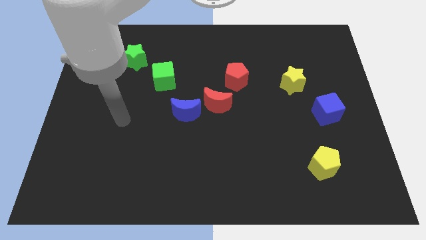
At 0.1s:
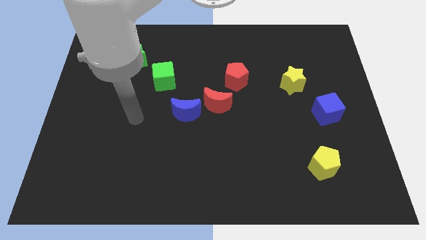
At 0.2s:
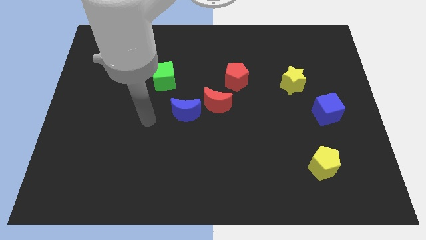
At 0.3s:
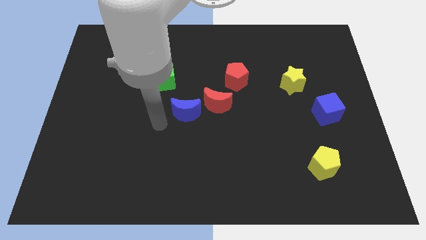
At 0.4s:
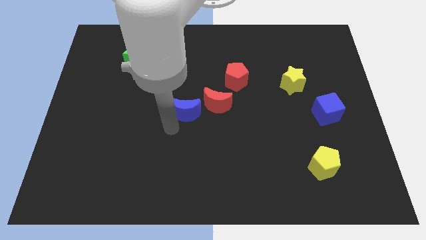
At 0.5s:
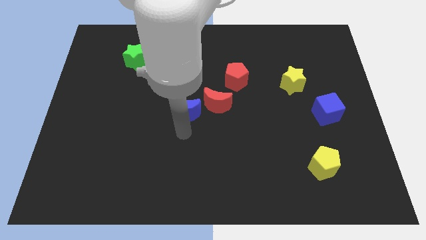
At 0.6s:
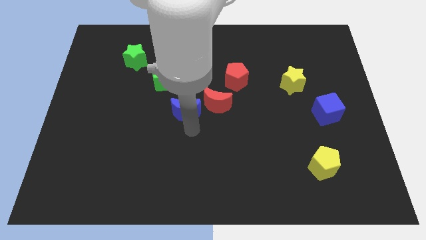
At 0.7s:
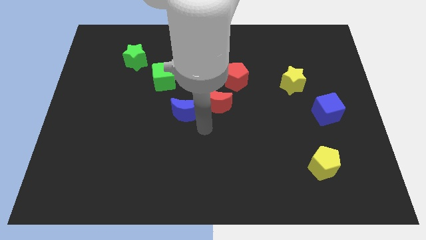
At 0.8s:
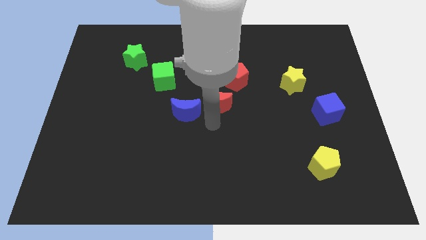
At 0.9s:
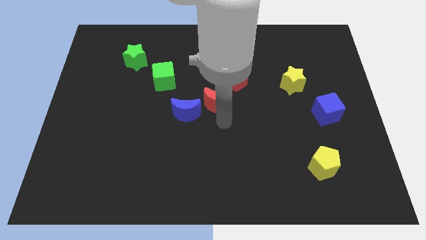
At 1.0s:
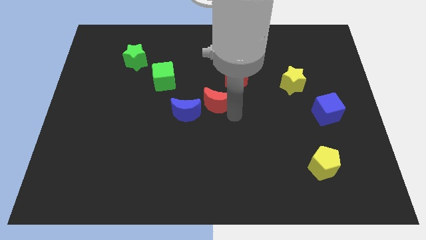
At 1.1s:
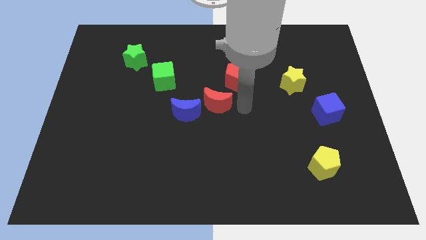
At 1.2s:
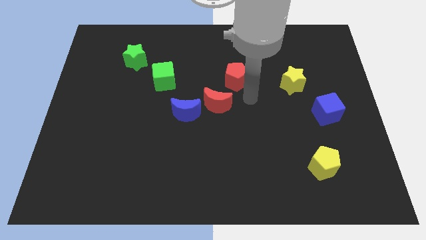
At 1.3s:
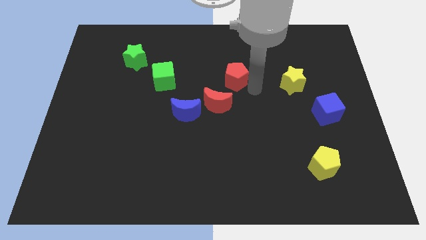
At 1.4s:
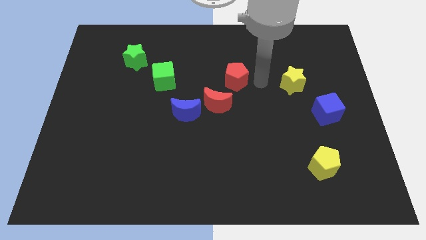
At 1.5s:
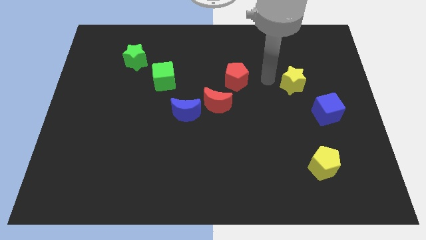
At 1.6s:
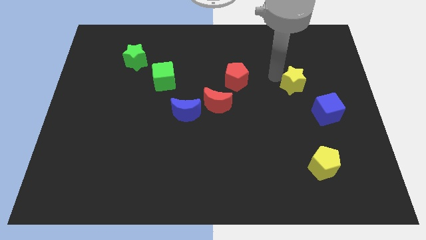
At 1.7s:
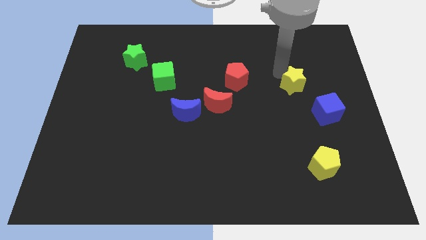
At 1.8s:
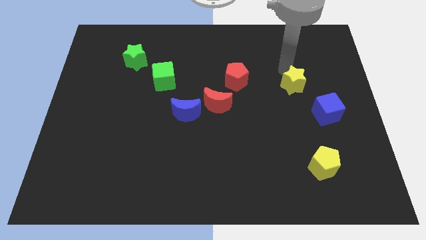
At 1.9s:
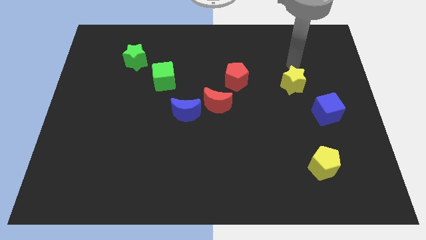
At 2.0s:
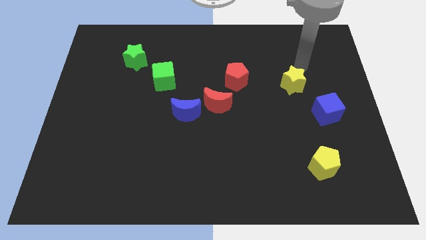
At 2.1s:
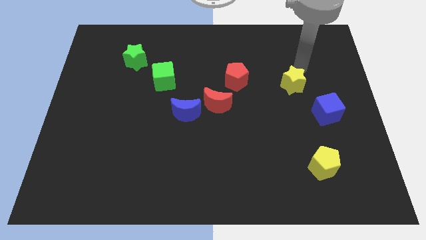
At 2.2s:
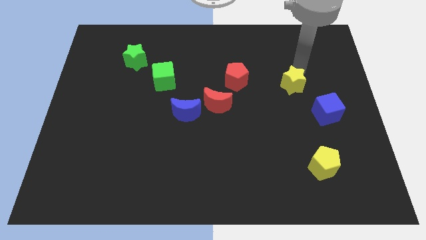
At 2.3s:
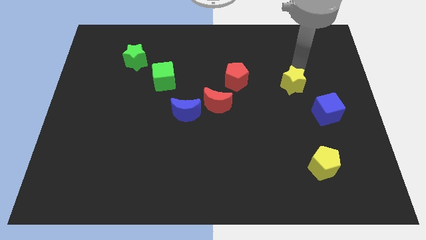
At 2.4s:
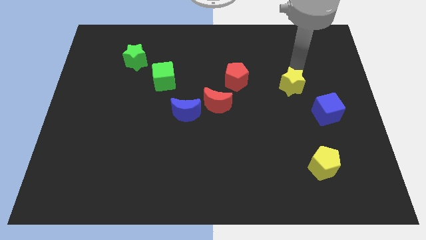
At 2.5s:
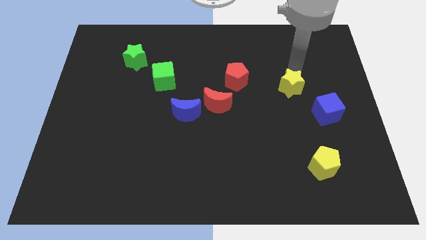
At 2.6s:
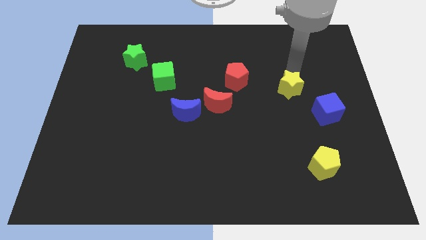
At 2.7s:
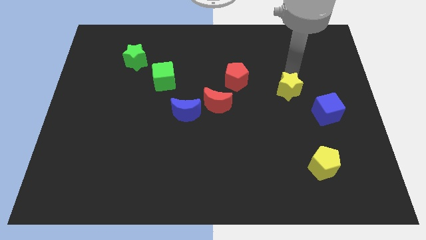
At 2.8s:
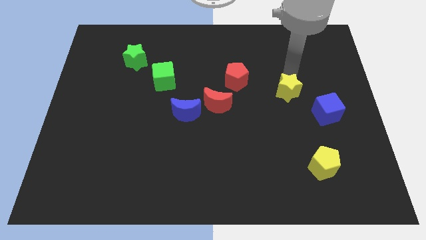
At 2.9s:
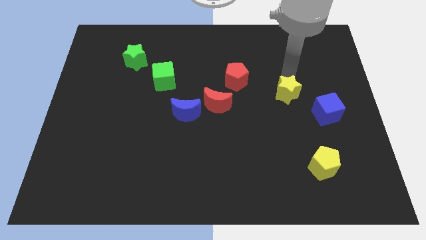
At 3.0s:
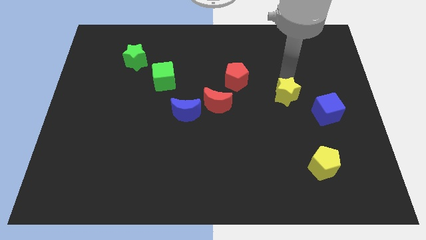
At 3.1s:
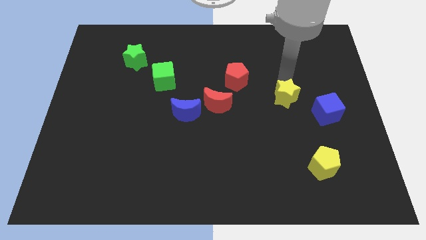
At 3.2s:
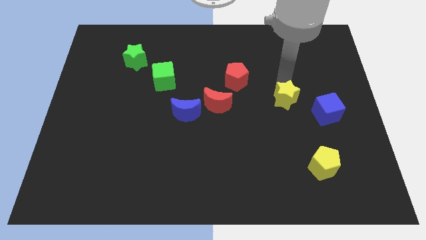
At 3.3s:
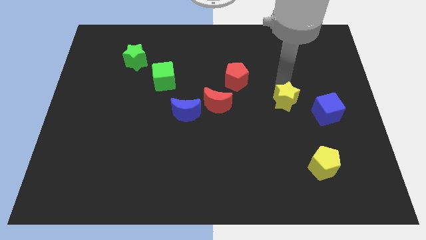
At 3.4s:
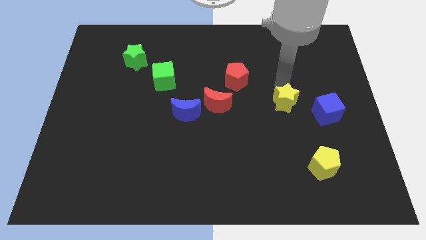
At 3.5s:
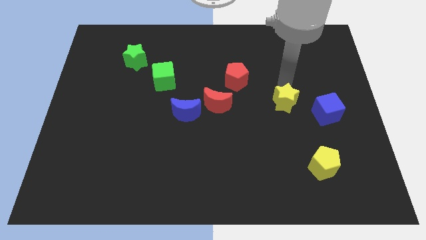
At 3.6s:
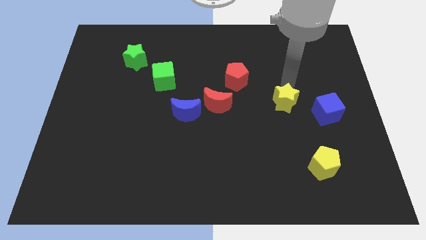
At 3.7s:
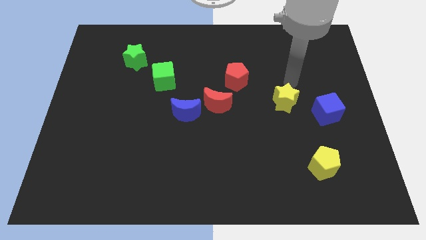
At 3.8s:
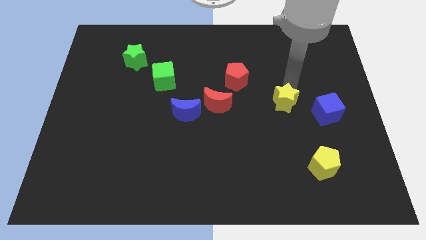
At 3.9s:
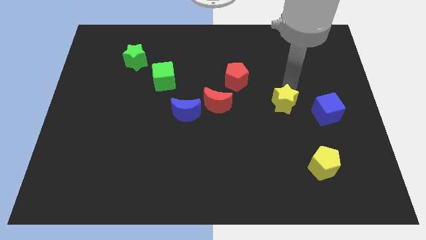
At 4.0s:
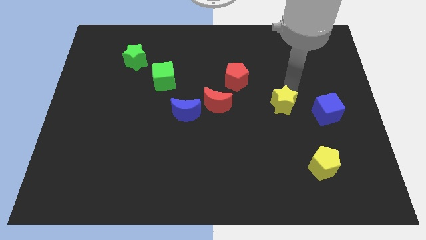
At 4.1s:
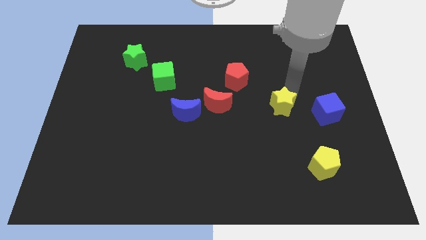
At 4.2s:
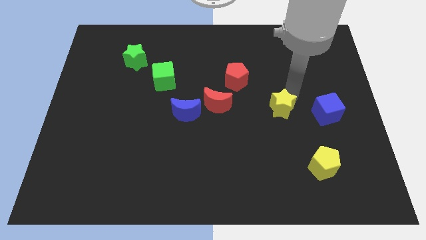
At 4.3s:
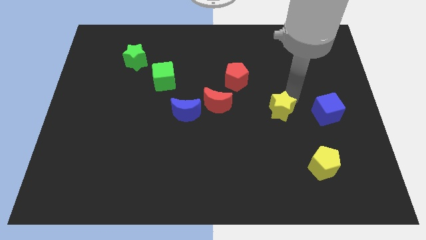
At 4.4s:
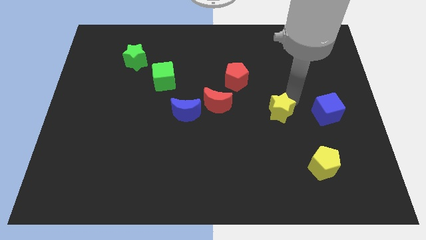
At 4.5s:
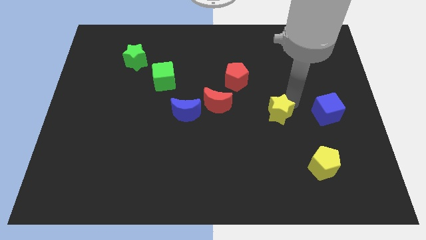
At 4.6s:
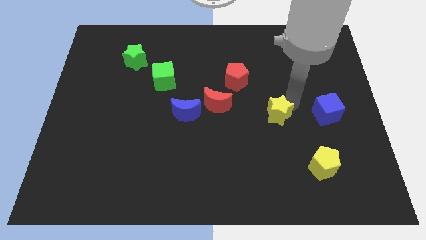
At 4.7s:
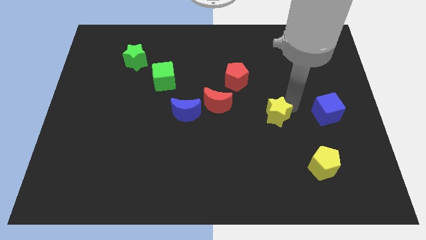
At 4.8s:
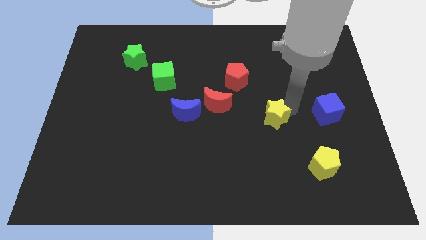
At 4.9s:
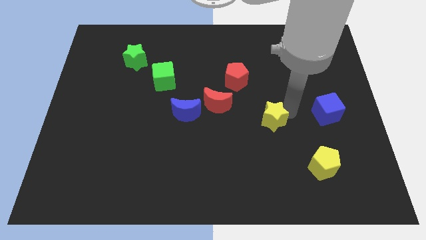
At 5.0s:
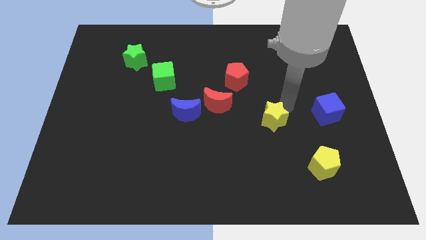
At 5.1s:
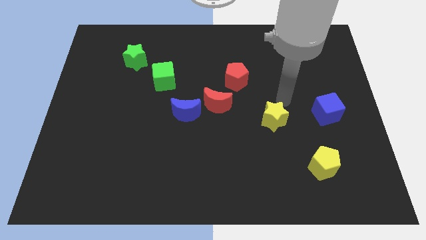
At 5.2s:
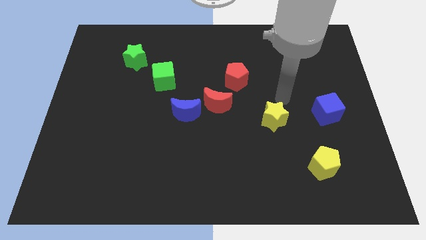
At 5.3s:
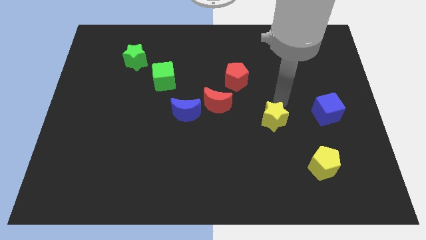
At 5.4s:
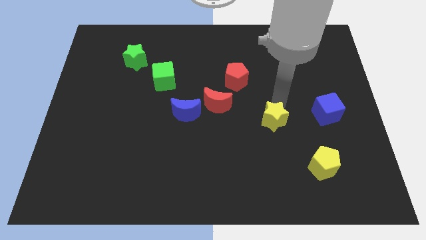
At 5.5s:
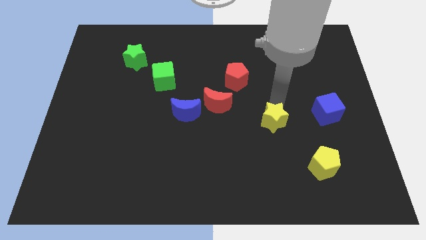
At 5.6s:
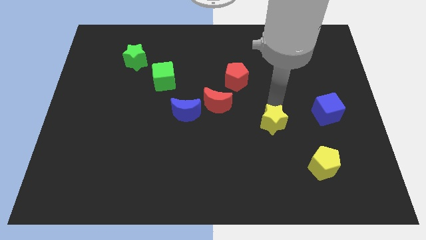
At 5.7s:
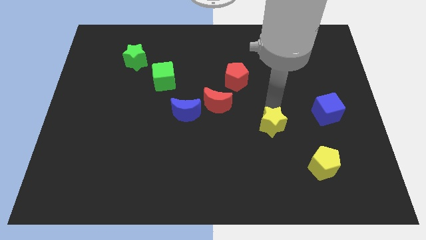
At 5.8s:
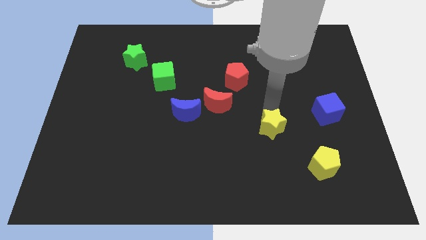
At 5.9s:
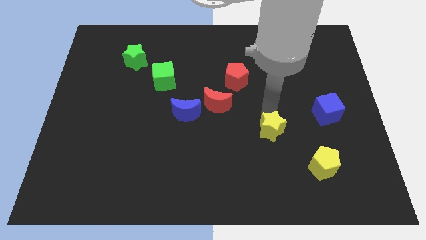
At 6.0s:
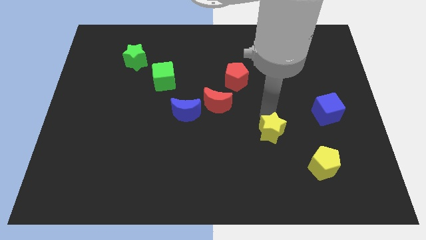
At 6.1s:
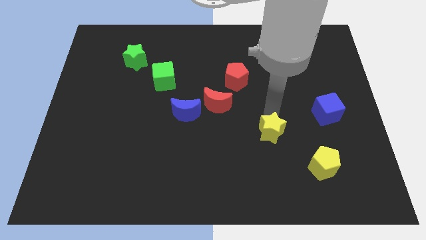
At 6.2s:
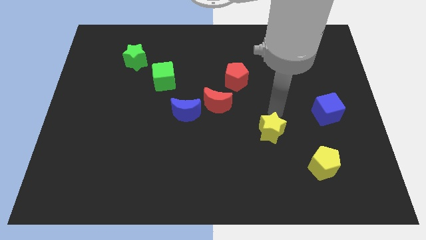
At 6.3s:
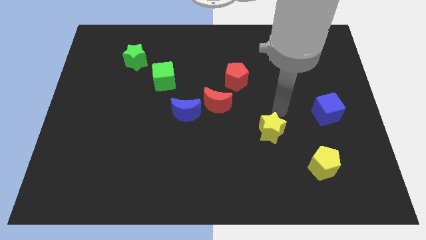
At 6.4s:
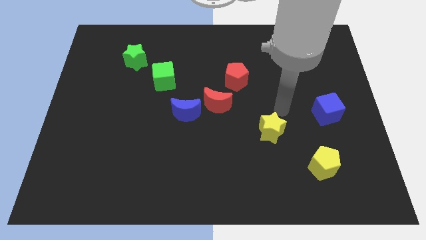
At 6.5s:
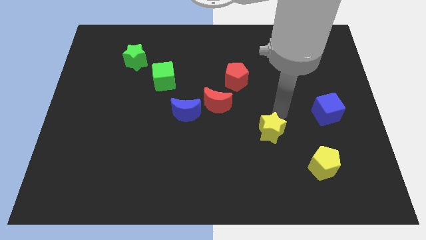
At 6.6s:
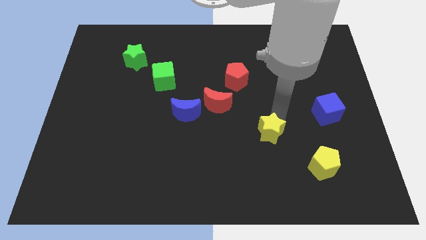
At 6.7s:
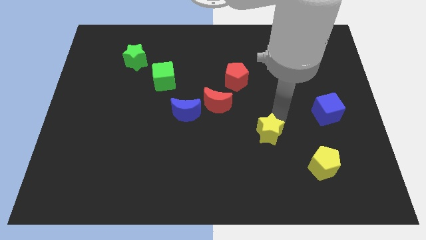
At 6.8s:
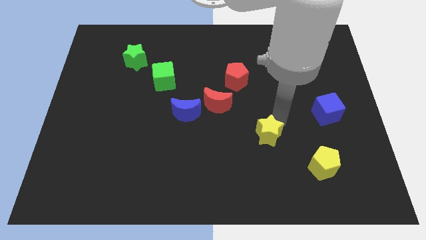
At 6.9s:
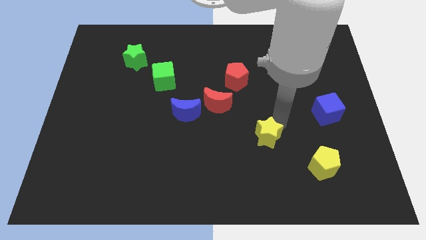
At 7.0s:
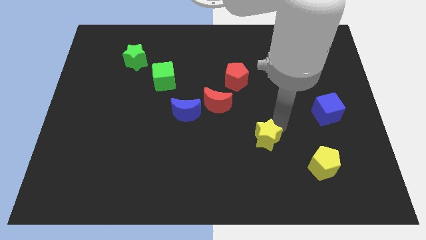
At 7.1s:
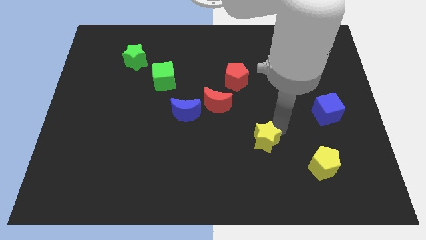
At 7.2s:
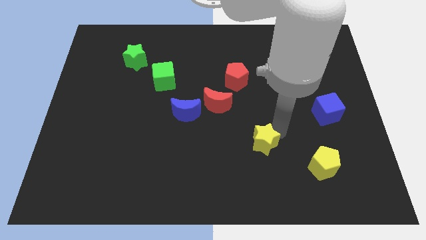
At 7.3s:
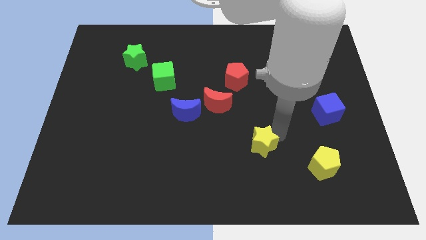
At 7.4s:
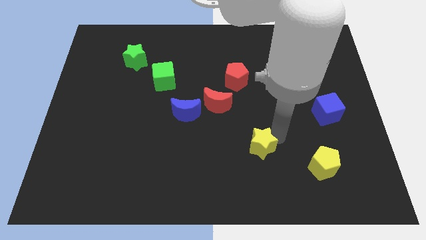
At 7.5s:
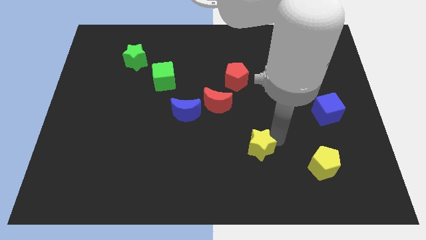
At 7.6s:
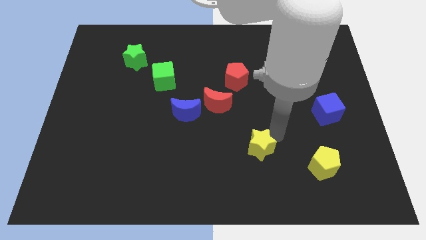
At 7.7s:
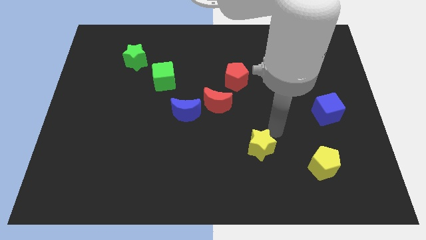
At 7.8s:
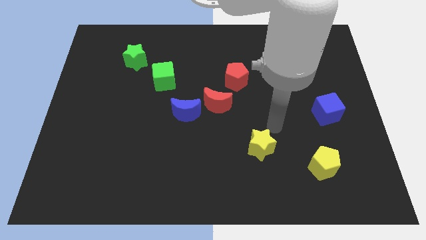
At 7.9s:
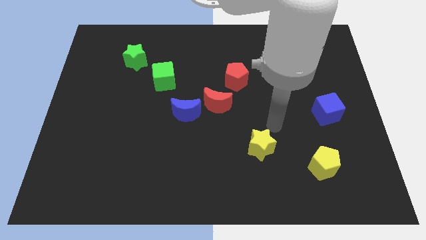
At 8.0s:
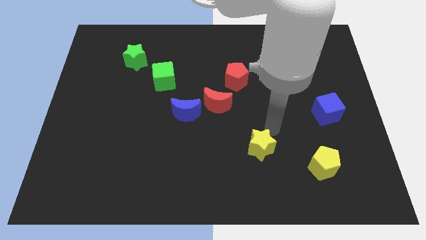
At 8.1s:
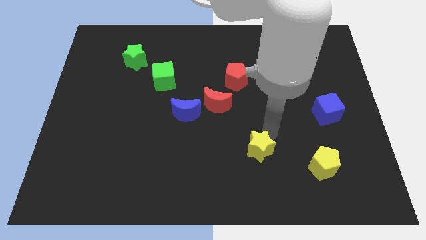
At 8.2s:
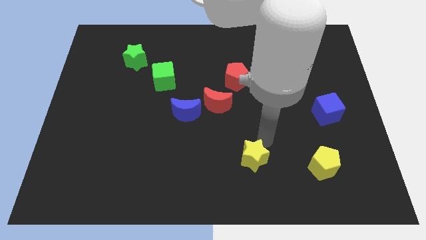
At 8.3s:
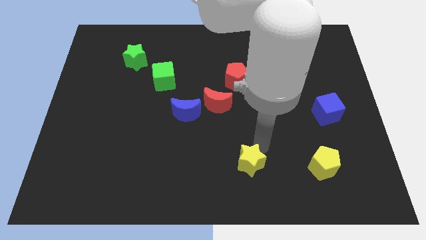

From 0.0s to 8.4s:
slide the yellow star to the bottom
